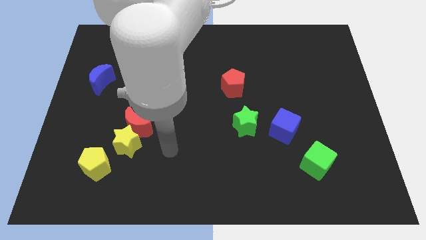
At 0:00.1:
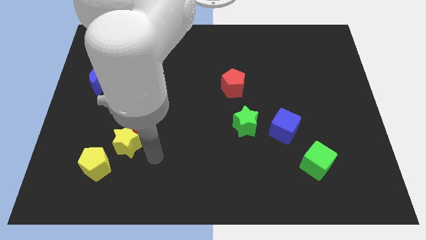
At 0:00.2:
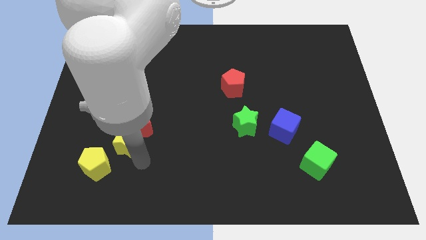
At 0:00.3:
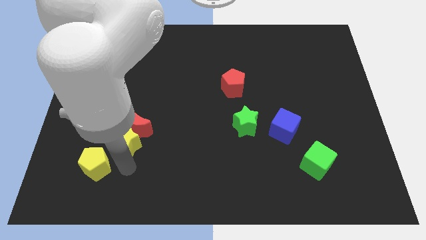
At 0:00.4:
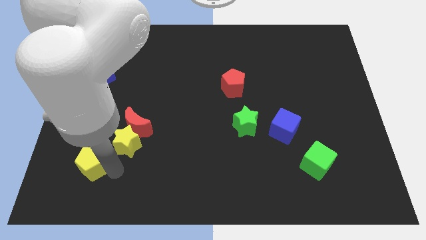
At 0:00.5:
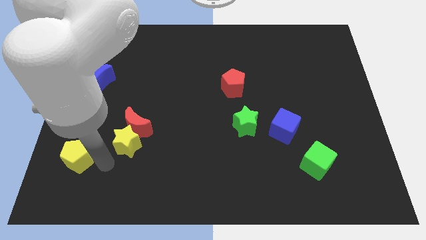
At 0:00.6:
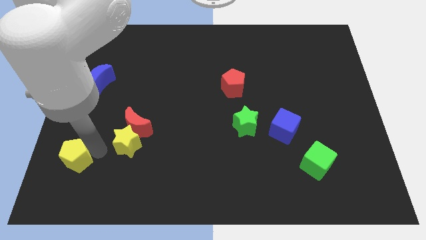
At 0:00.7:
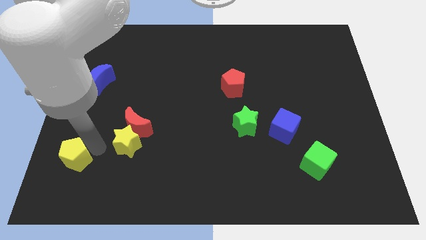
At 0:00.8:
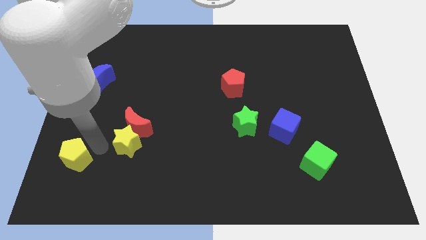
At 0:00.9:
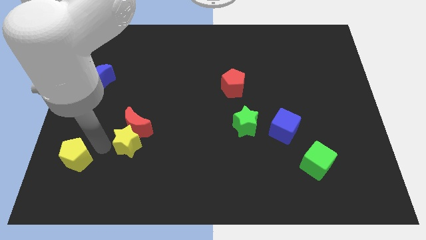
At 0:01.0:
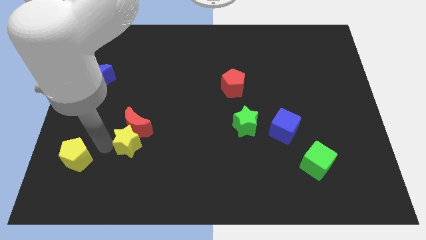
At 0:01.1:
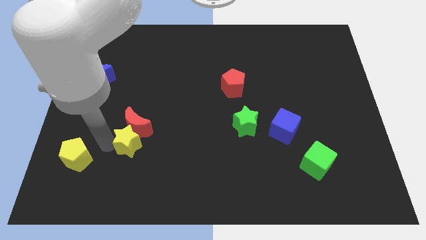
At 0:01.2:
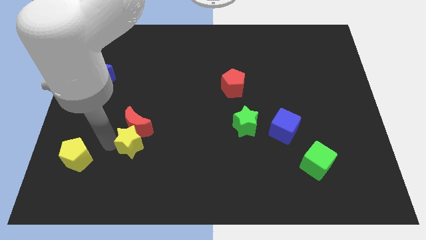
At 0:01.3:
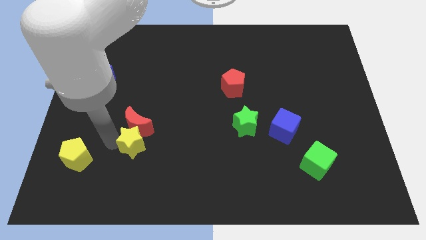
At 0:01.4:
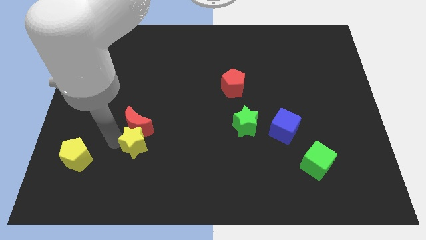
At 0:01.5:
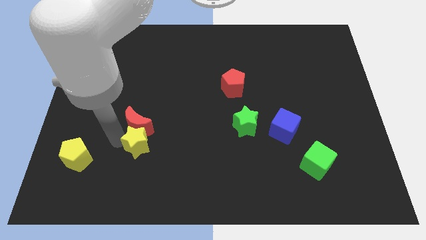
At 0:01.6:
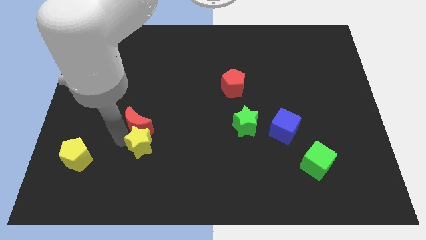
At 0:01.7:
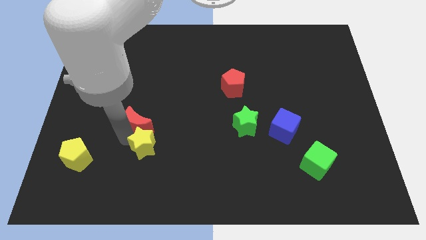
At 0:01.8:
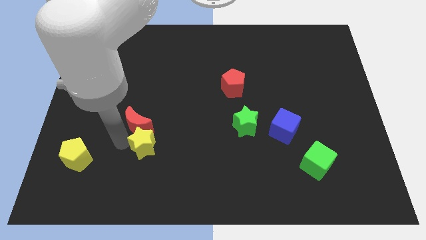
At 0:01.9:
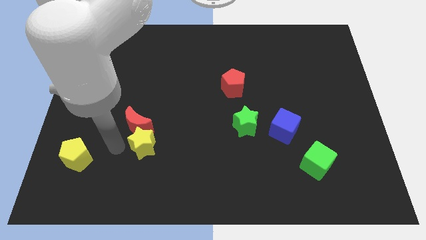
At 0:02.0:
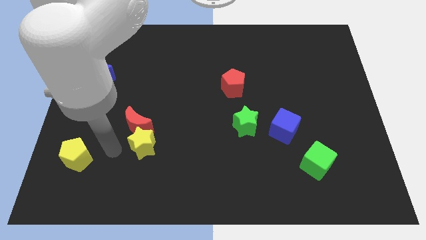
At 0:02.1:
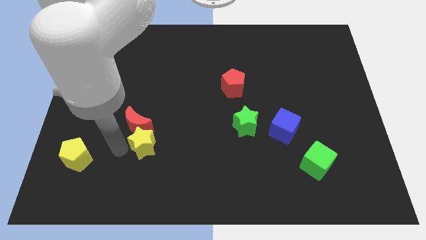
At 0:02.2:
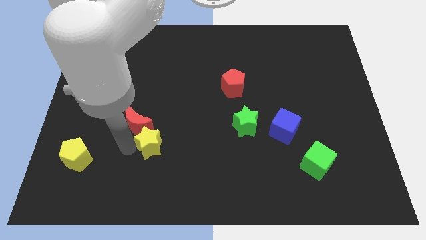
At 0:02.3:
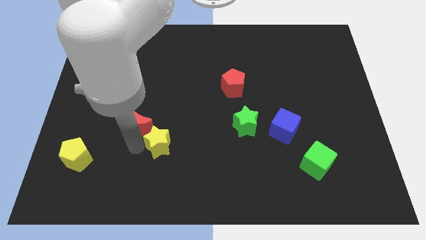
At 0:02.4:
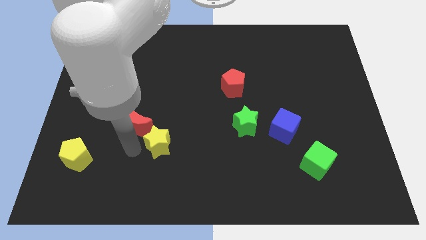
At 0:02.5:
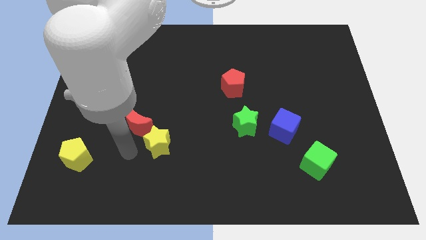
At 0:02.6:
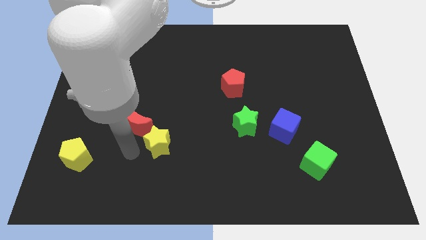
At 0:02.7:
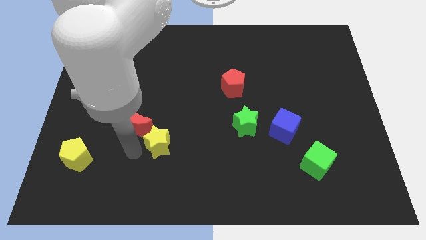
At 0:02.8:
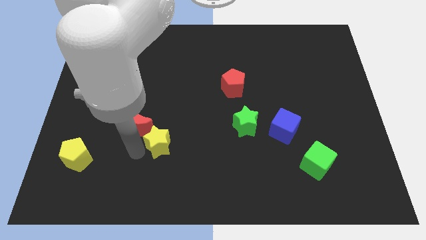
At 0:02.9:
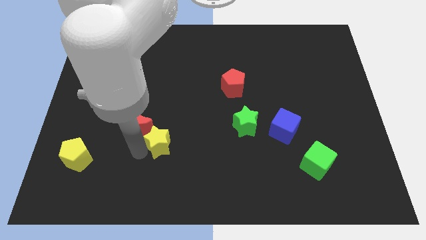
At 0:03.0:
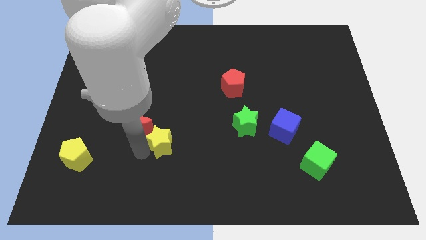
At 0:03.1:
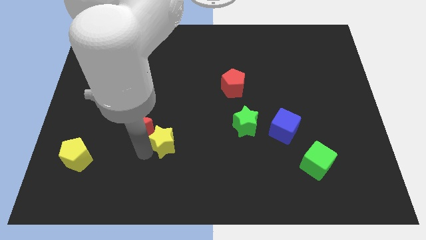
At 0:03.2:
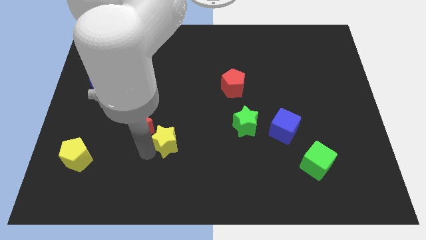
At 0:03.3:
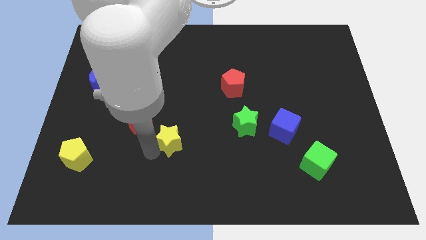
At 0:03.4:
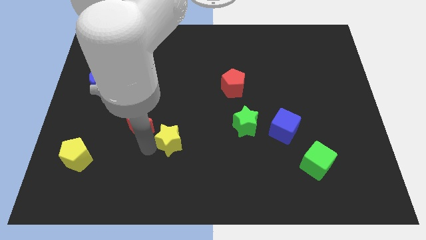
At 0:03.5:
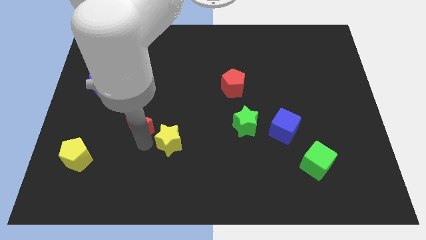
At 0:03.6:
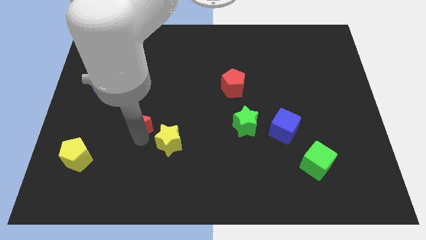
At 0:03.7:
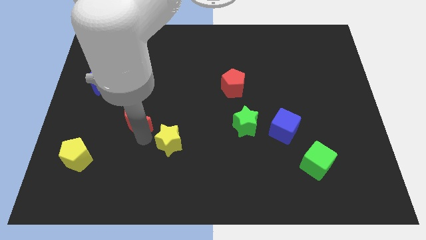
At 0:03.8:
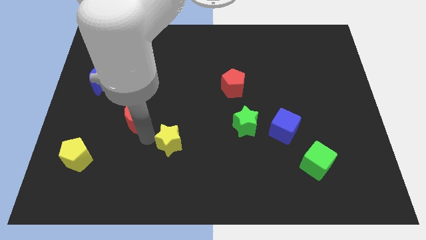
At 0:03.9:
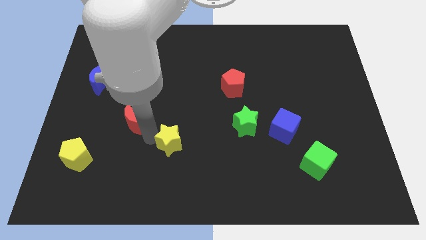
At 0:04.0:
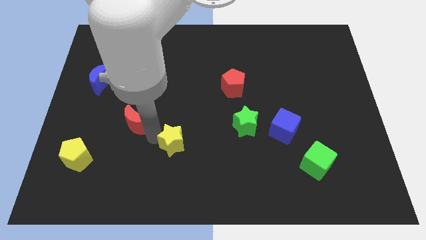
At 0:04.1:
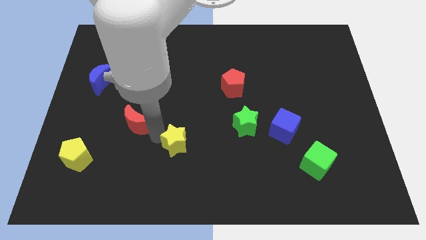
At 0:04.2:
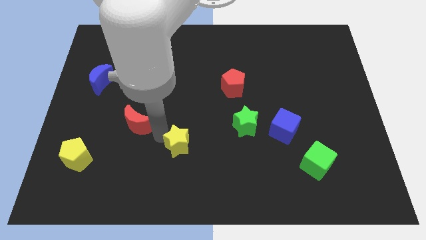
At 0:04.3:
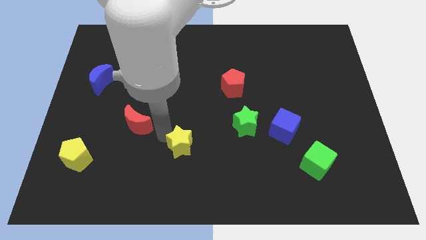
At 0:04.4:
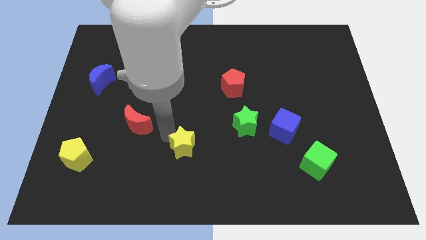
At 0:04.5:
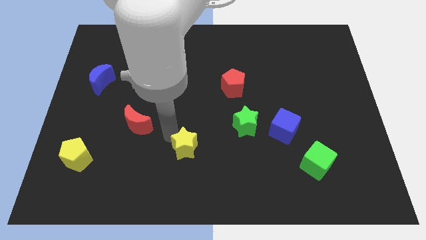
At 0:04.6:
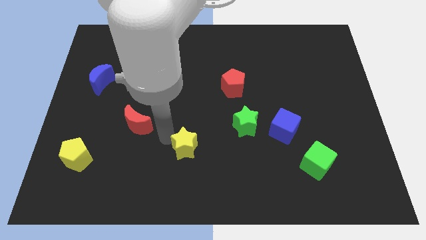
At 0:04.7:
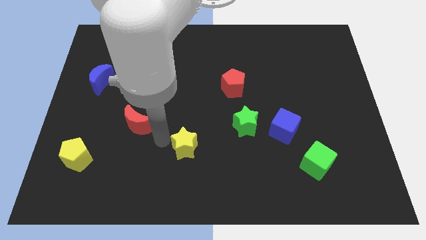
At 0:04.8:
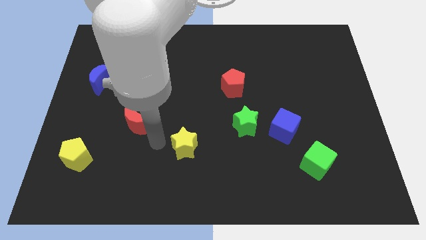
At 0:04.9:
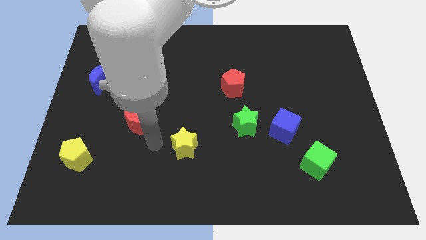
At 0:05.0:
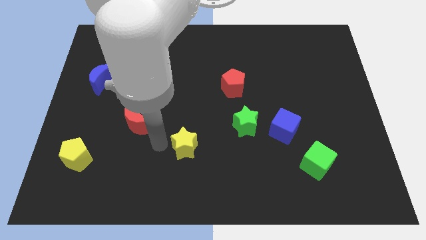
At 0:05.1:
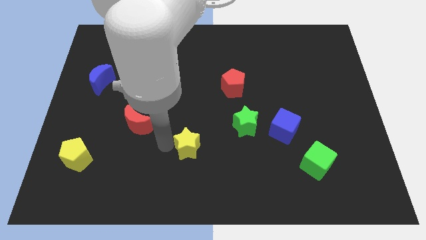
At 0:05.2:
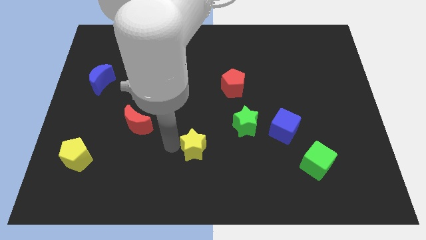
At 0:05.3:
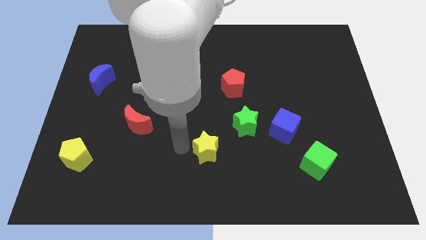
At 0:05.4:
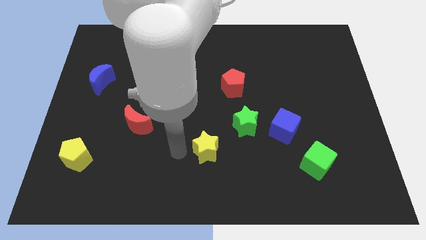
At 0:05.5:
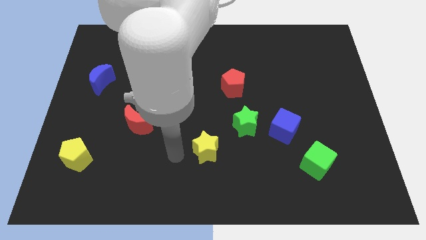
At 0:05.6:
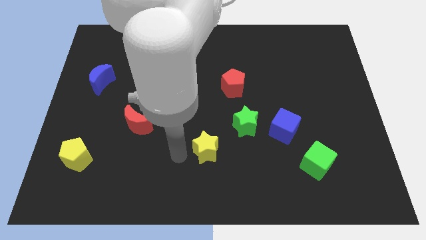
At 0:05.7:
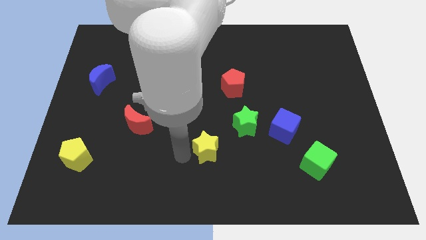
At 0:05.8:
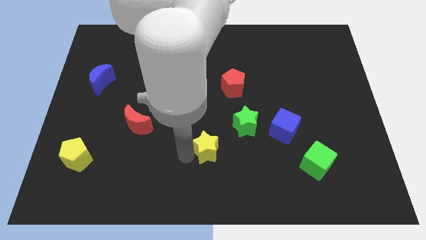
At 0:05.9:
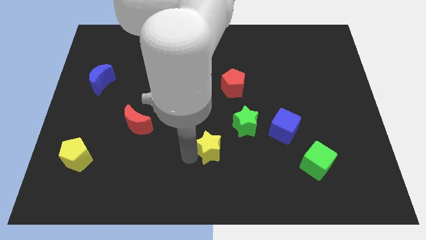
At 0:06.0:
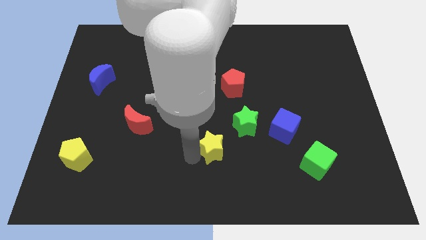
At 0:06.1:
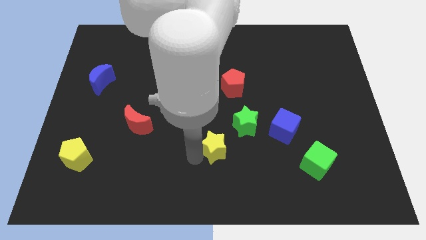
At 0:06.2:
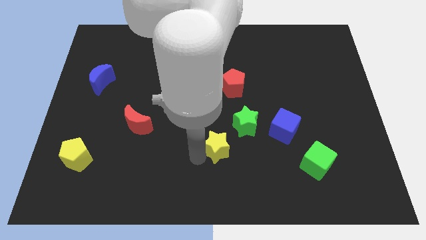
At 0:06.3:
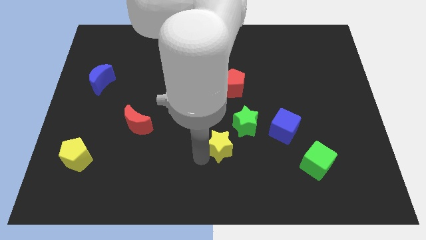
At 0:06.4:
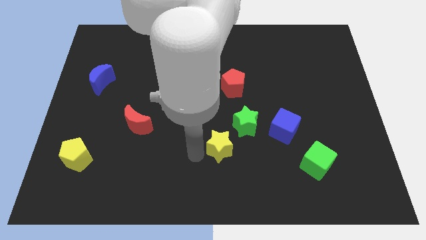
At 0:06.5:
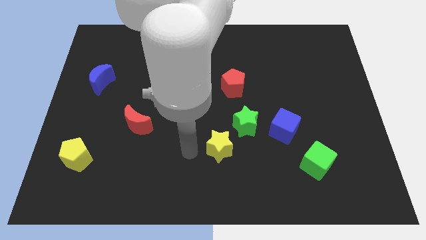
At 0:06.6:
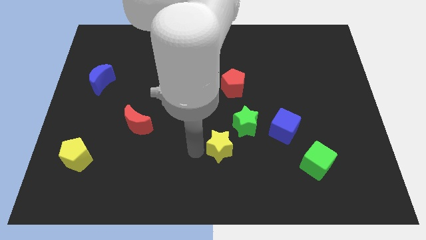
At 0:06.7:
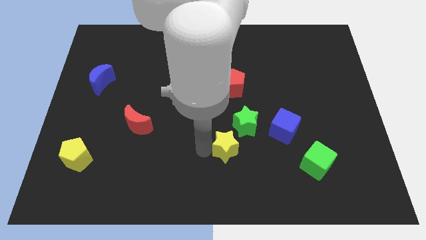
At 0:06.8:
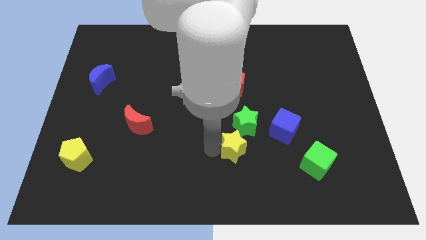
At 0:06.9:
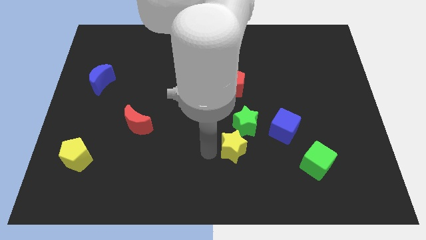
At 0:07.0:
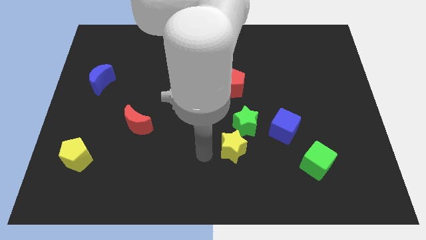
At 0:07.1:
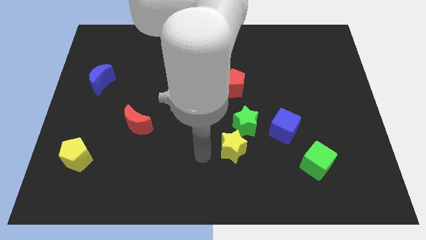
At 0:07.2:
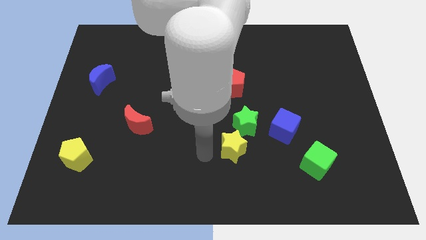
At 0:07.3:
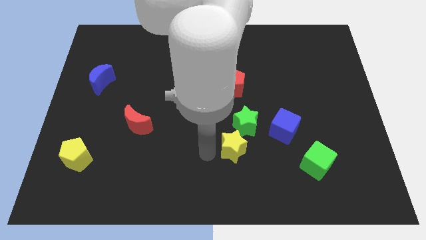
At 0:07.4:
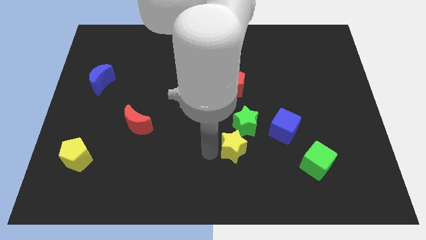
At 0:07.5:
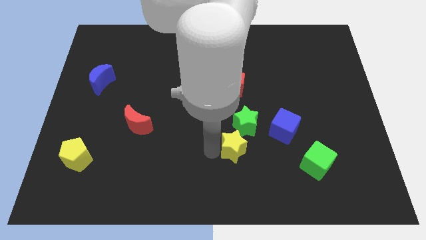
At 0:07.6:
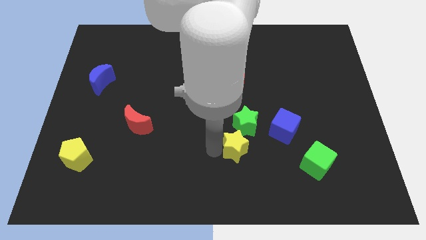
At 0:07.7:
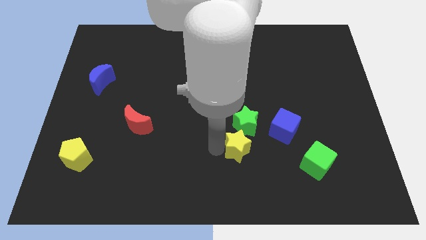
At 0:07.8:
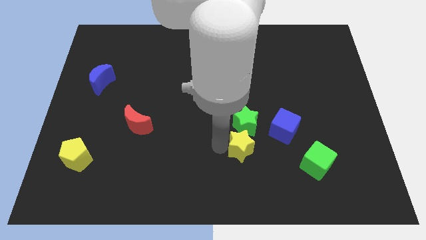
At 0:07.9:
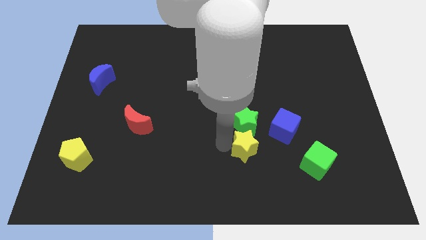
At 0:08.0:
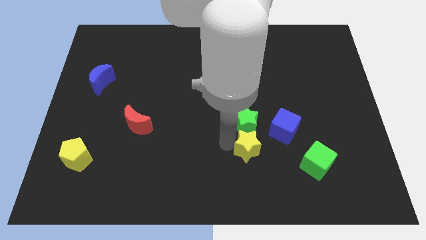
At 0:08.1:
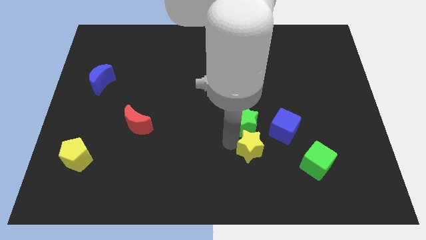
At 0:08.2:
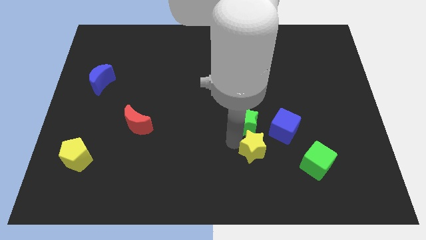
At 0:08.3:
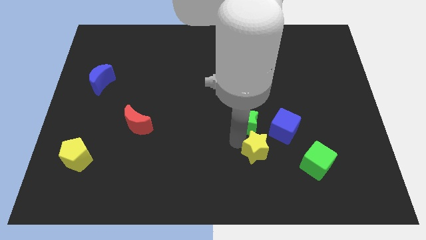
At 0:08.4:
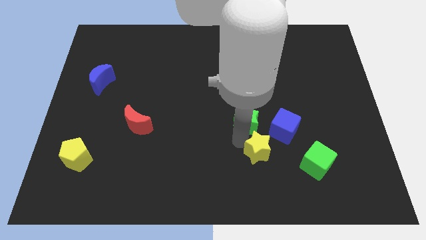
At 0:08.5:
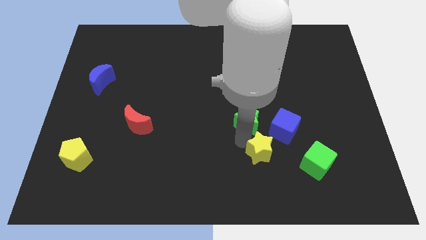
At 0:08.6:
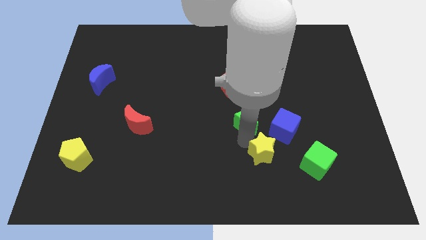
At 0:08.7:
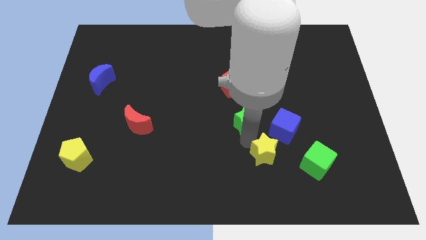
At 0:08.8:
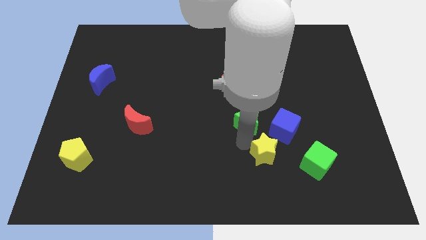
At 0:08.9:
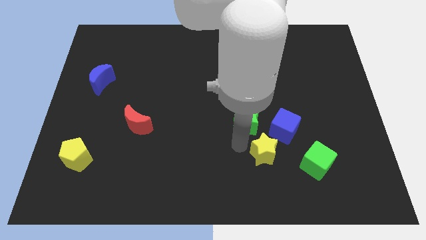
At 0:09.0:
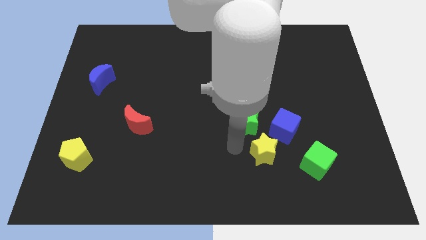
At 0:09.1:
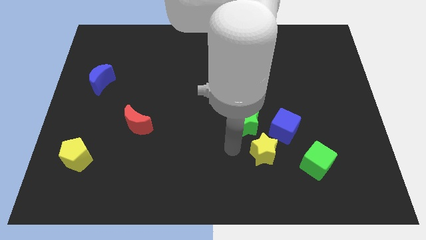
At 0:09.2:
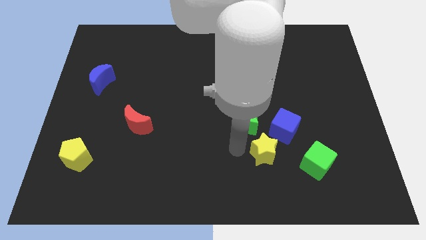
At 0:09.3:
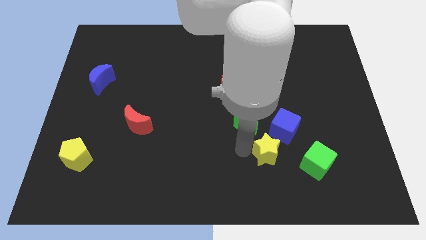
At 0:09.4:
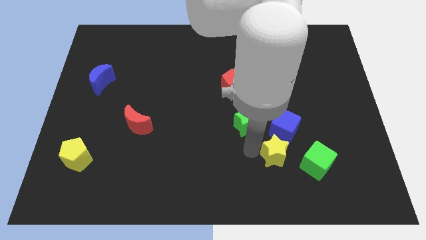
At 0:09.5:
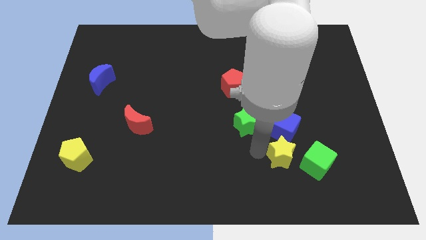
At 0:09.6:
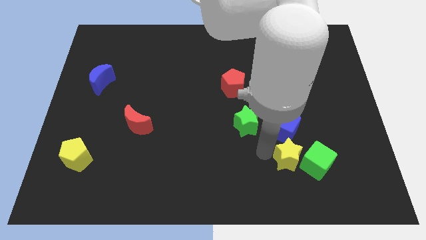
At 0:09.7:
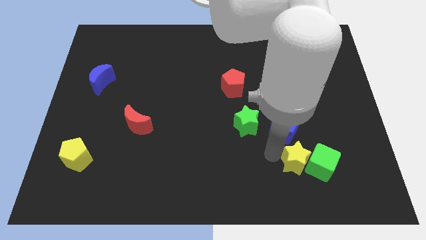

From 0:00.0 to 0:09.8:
move the yellow star towards the green cube
